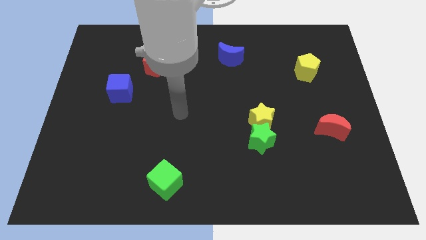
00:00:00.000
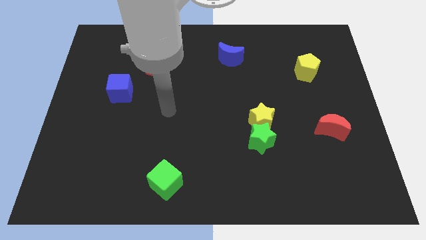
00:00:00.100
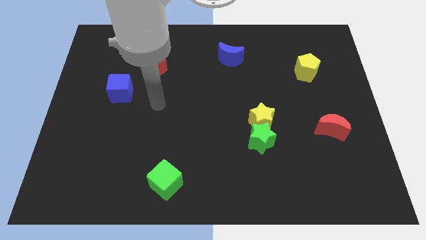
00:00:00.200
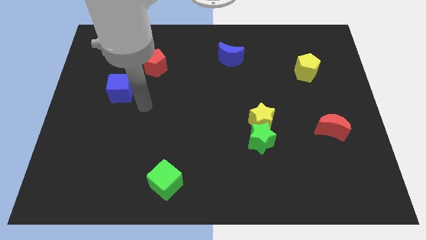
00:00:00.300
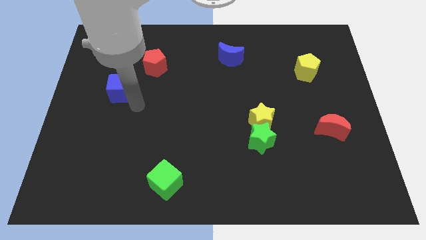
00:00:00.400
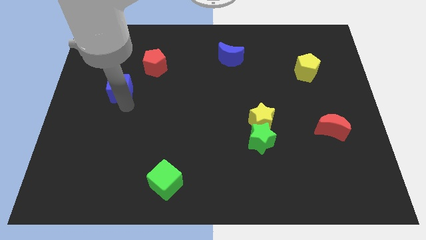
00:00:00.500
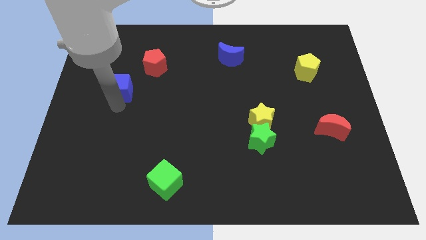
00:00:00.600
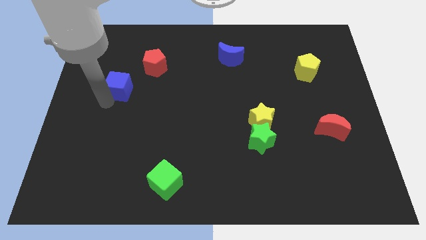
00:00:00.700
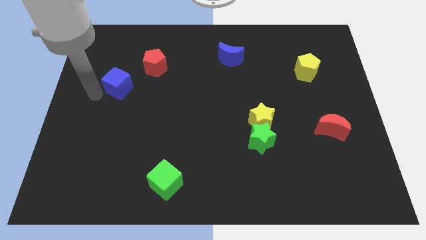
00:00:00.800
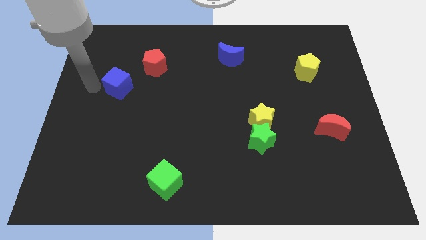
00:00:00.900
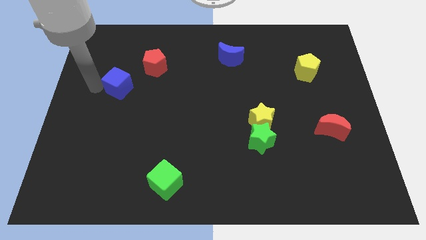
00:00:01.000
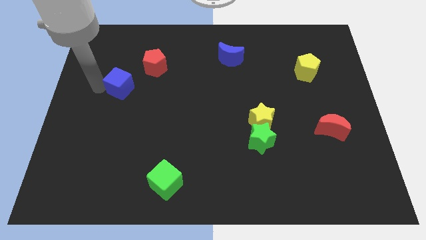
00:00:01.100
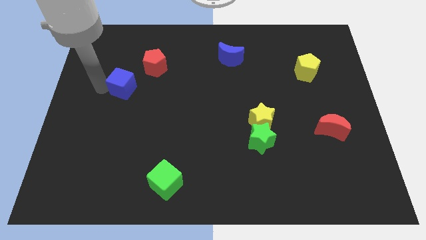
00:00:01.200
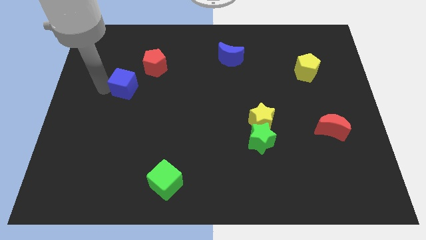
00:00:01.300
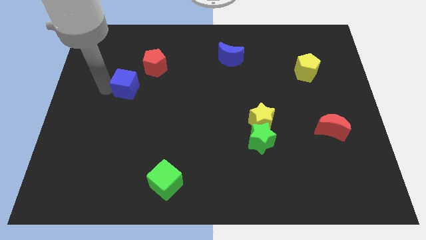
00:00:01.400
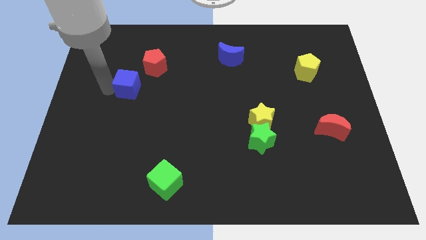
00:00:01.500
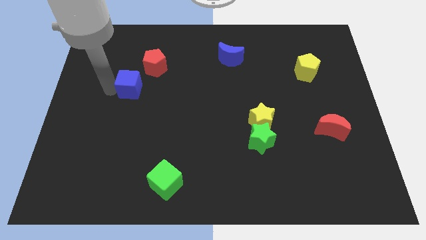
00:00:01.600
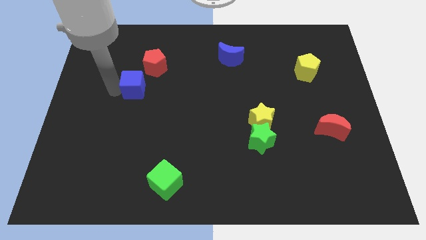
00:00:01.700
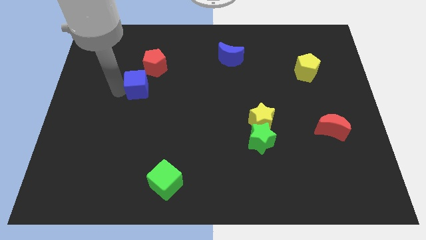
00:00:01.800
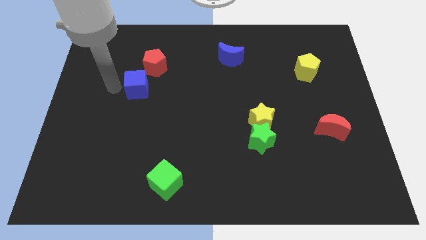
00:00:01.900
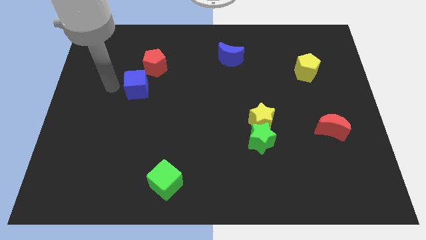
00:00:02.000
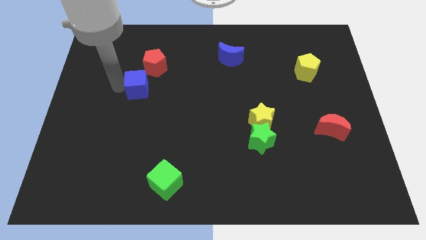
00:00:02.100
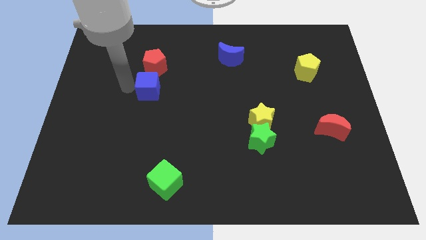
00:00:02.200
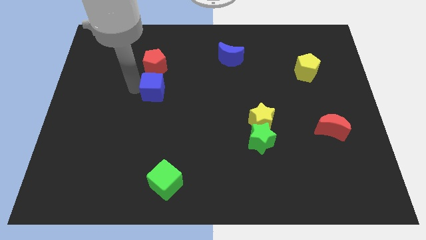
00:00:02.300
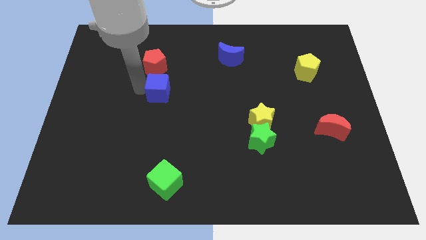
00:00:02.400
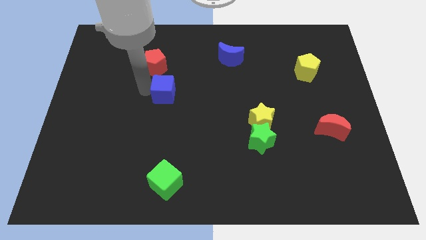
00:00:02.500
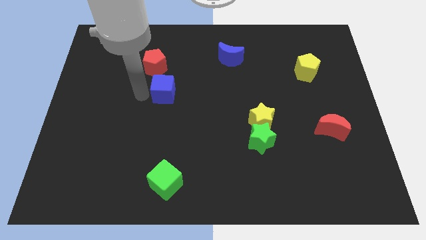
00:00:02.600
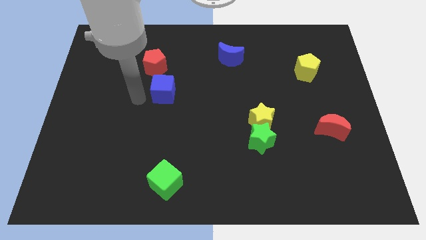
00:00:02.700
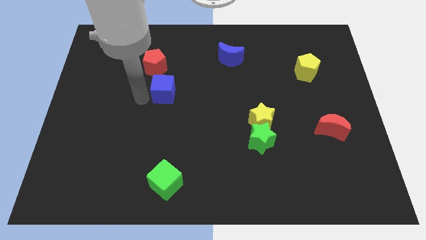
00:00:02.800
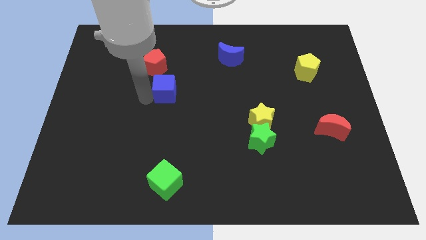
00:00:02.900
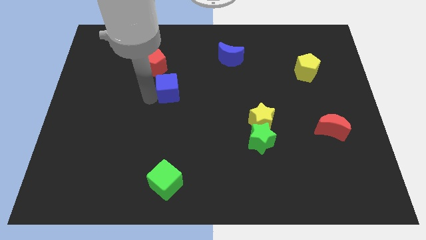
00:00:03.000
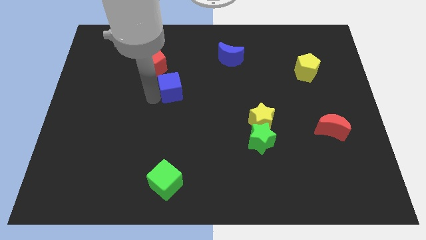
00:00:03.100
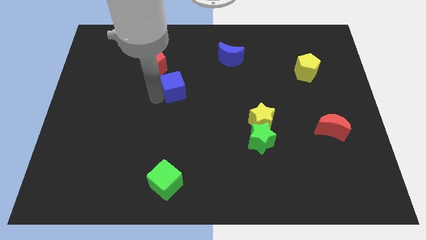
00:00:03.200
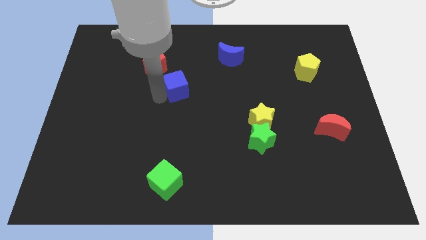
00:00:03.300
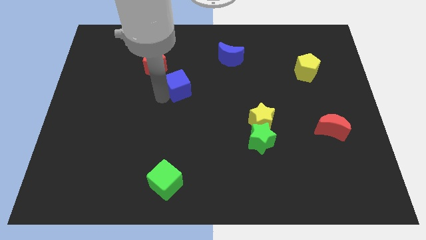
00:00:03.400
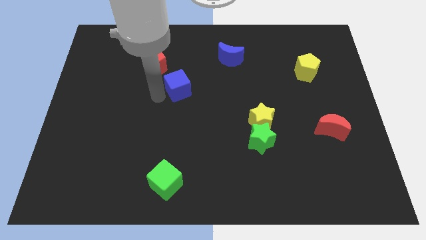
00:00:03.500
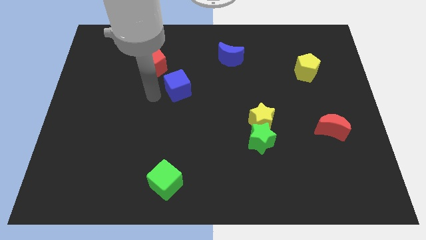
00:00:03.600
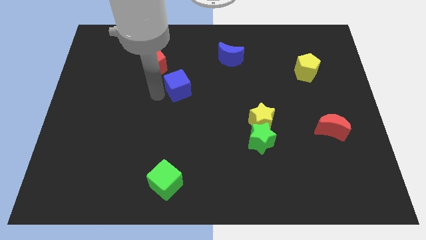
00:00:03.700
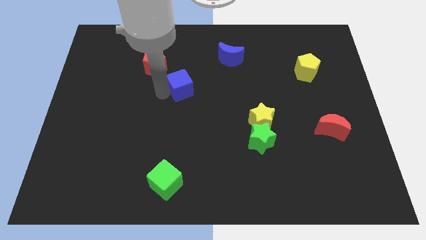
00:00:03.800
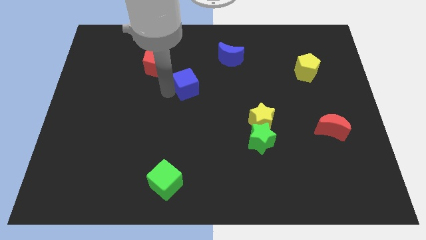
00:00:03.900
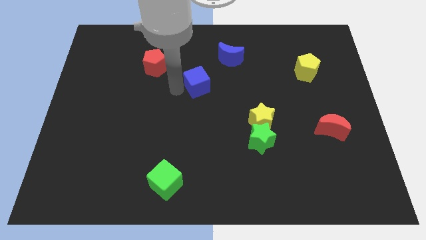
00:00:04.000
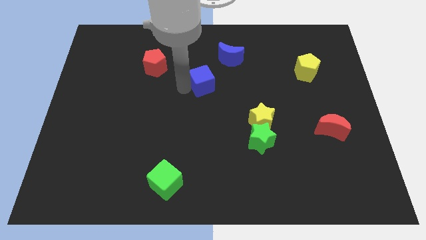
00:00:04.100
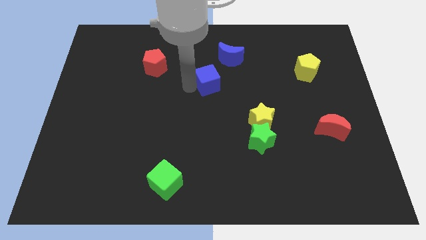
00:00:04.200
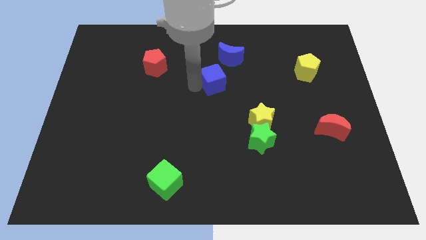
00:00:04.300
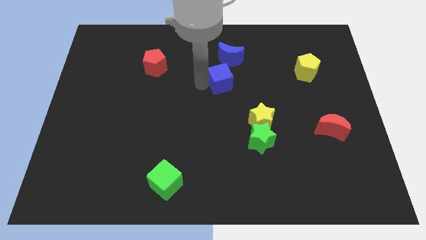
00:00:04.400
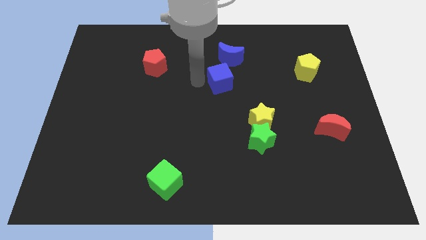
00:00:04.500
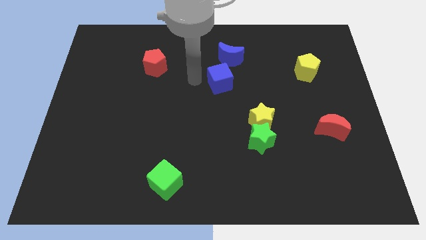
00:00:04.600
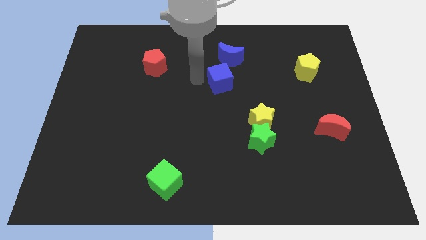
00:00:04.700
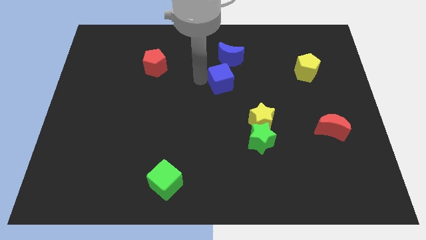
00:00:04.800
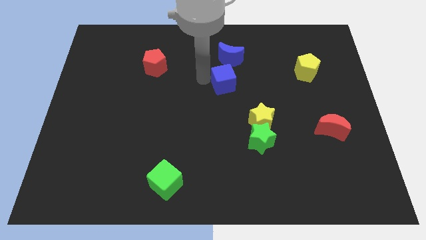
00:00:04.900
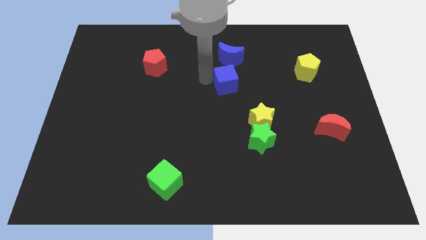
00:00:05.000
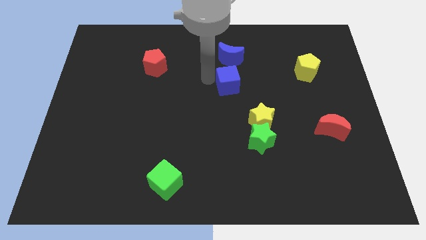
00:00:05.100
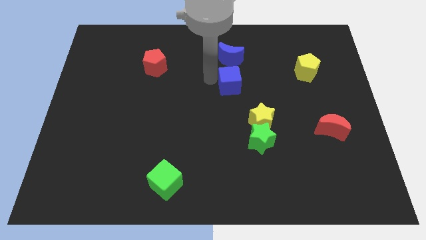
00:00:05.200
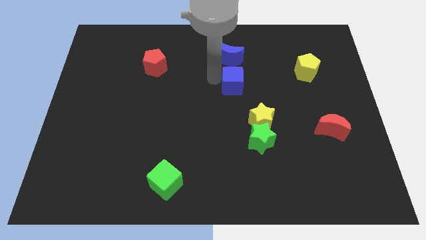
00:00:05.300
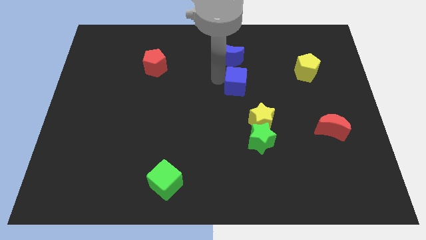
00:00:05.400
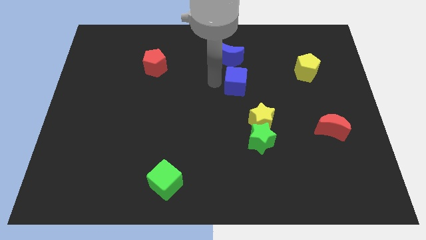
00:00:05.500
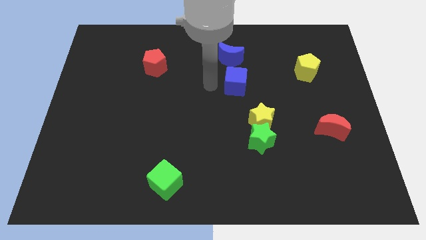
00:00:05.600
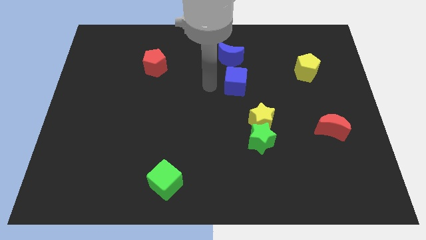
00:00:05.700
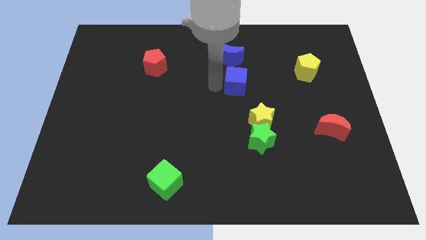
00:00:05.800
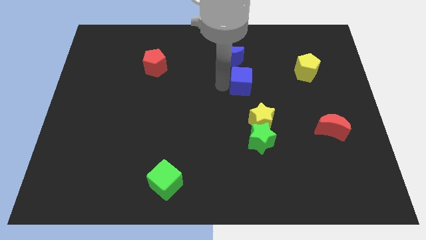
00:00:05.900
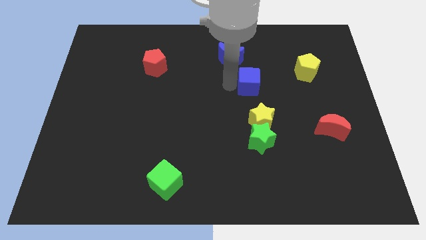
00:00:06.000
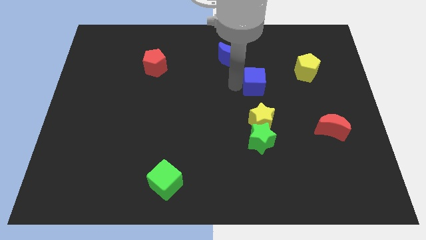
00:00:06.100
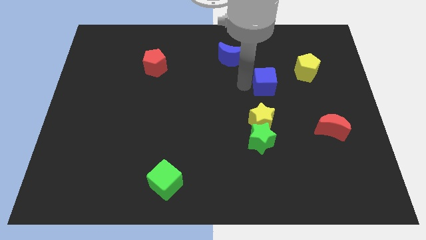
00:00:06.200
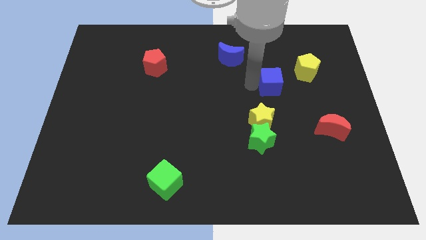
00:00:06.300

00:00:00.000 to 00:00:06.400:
push the blue cube to the bottom left side of the yellow pentagon

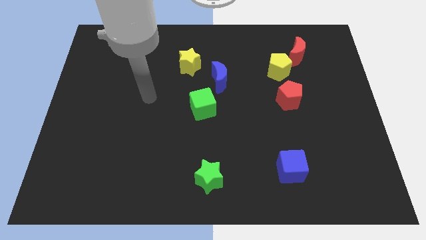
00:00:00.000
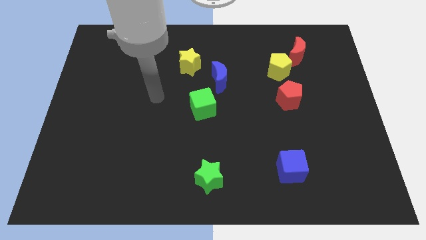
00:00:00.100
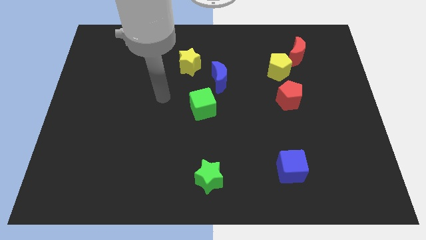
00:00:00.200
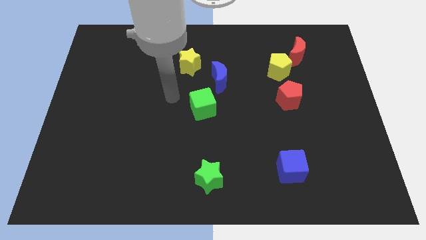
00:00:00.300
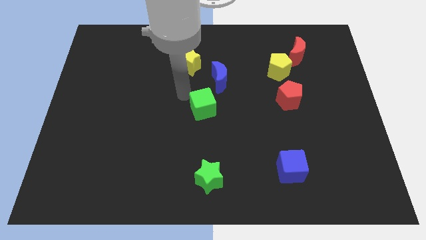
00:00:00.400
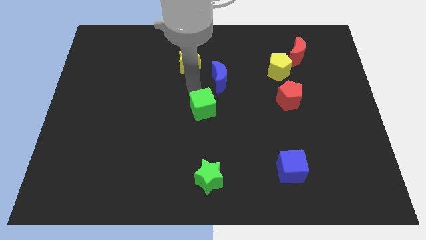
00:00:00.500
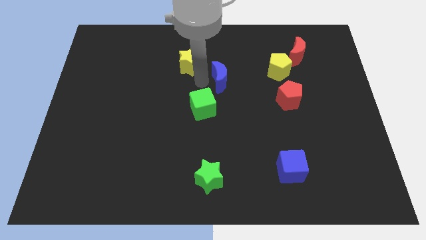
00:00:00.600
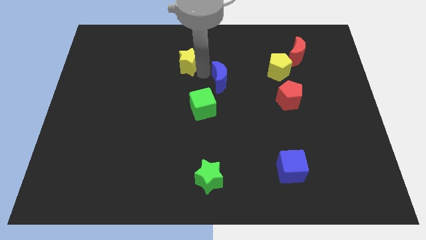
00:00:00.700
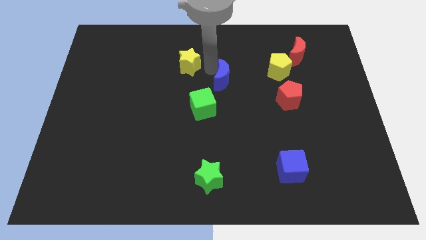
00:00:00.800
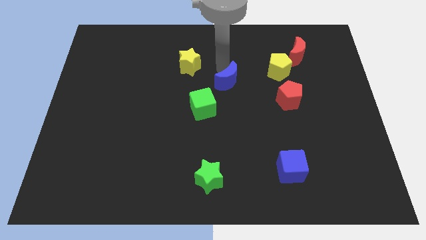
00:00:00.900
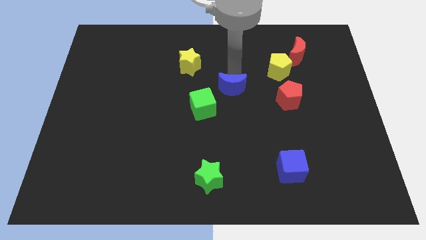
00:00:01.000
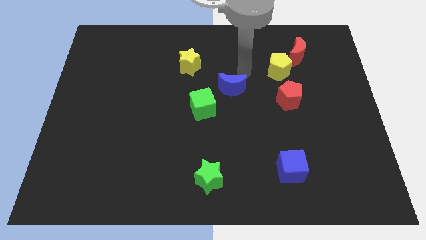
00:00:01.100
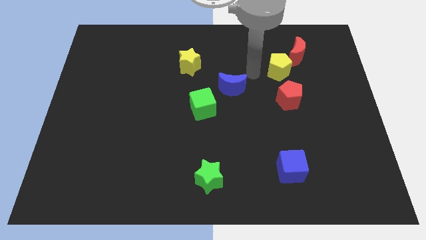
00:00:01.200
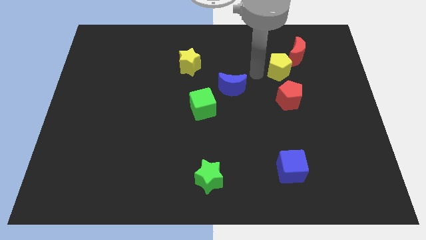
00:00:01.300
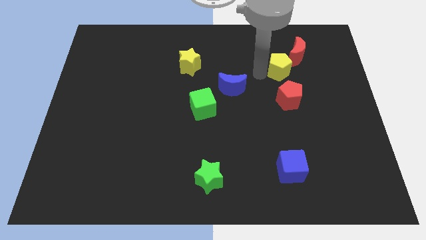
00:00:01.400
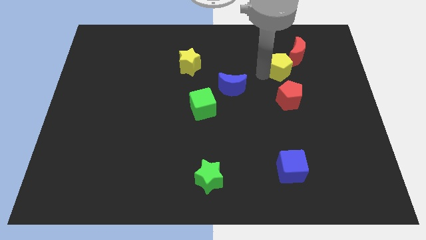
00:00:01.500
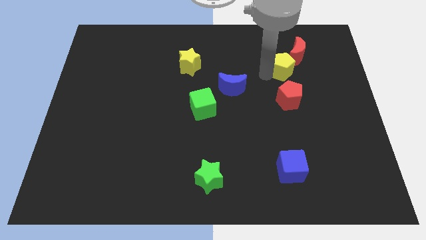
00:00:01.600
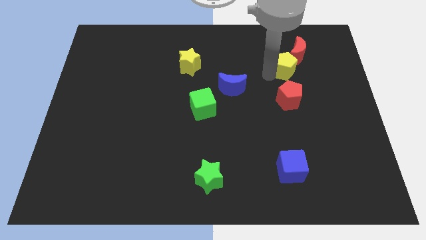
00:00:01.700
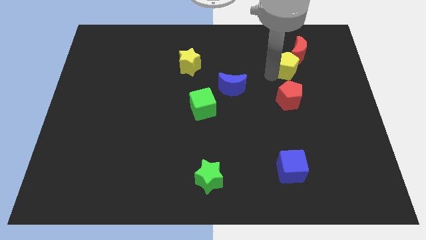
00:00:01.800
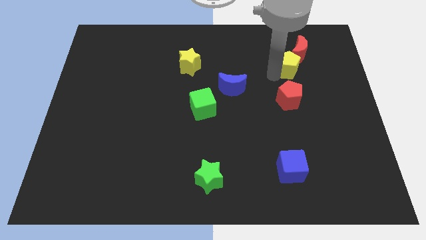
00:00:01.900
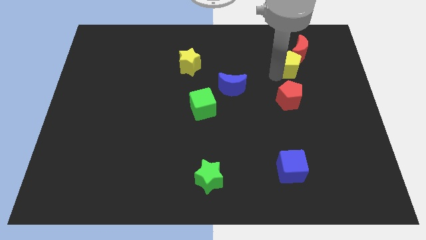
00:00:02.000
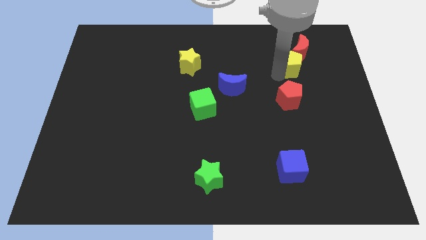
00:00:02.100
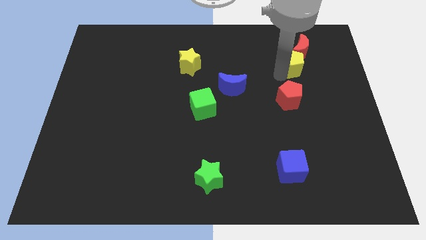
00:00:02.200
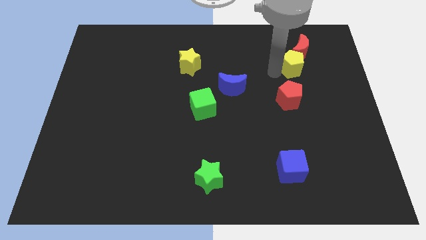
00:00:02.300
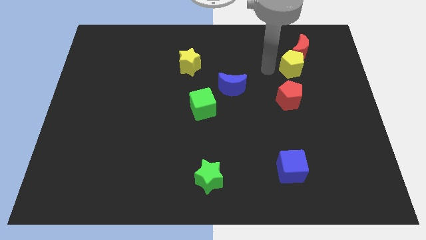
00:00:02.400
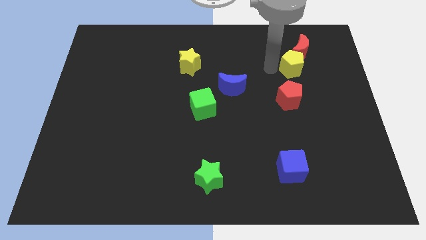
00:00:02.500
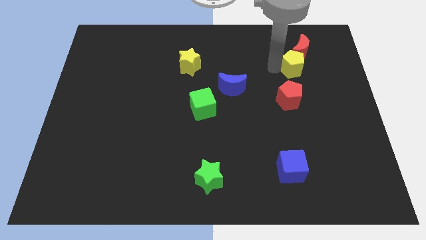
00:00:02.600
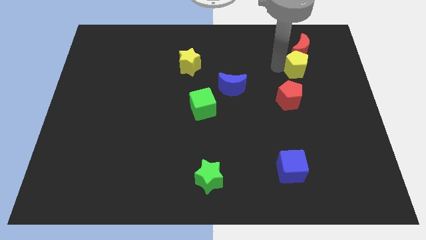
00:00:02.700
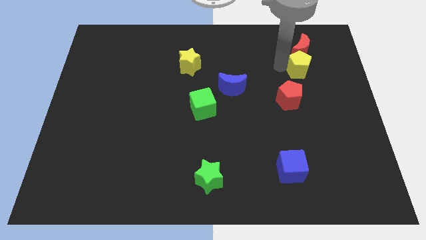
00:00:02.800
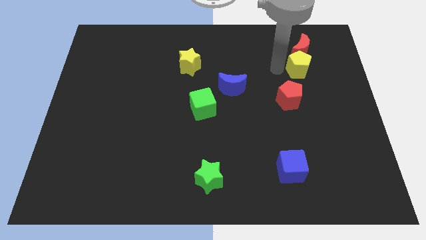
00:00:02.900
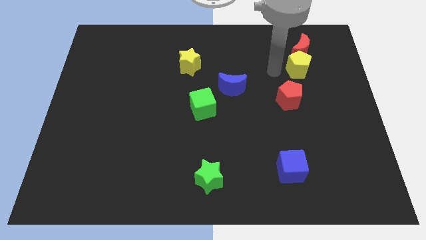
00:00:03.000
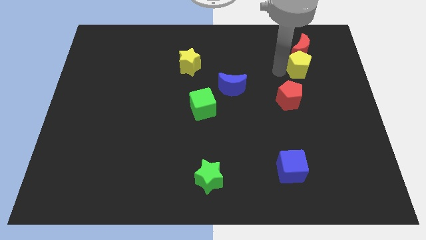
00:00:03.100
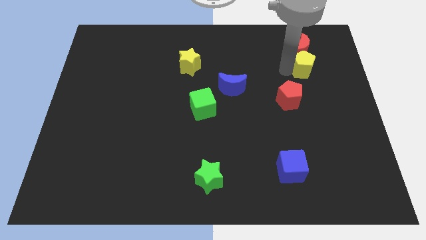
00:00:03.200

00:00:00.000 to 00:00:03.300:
slide the yellow pentagon to the bottom right of the red moon
